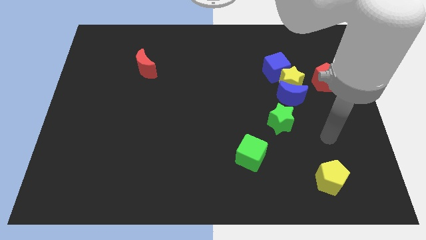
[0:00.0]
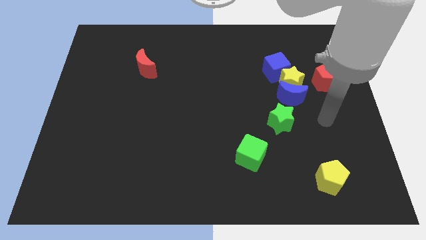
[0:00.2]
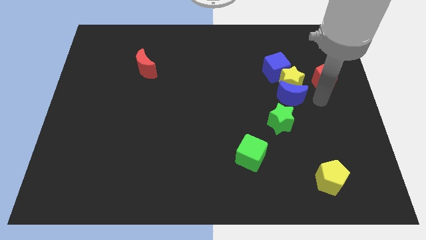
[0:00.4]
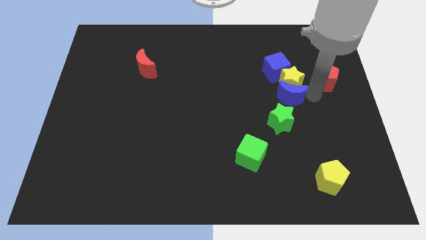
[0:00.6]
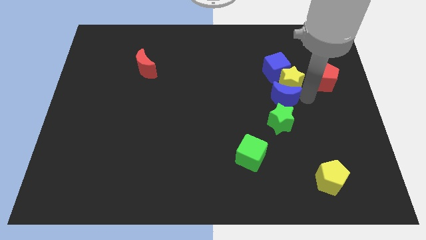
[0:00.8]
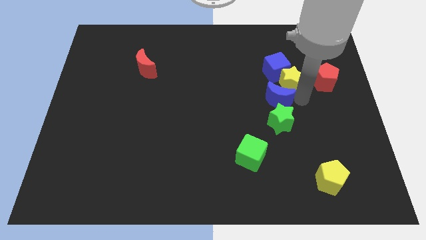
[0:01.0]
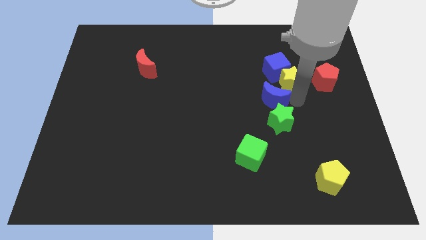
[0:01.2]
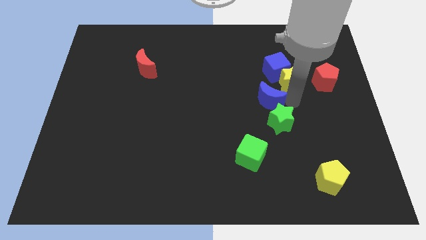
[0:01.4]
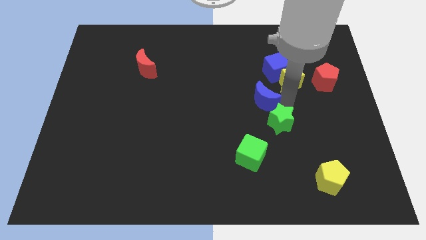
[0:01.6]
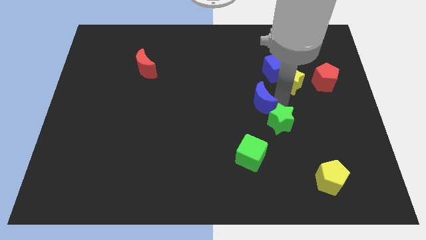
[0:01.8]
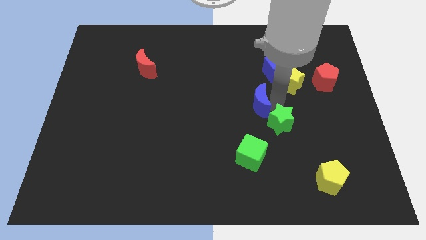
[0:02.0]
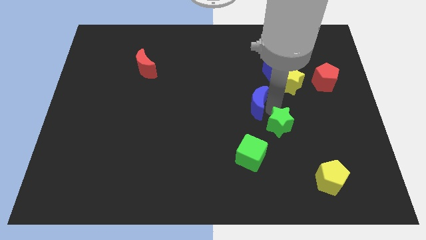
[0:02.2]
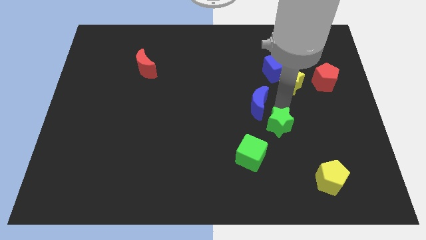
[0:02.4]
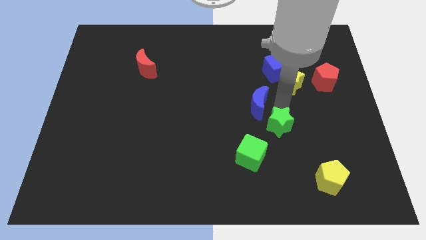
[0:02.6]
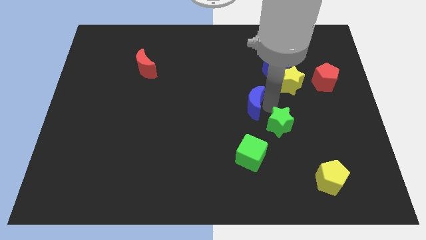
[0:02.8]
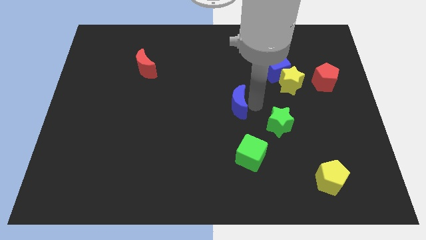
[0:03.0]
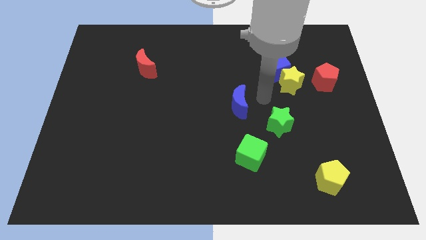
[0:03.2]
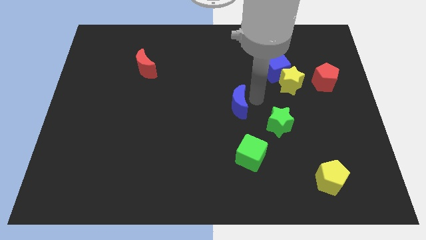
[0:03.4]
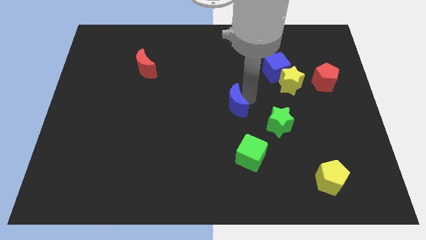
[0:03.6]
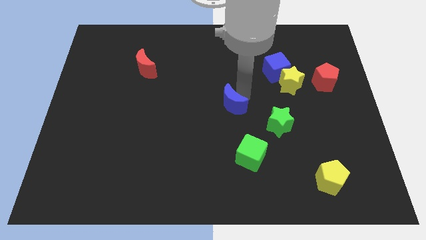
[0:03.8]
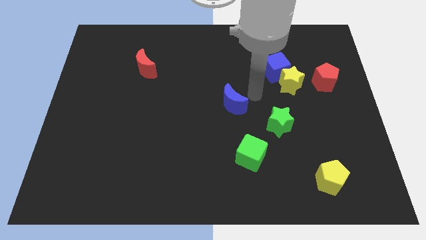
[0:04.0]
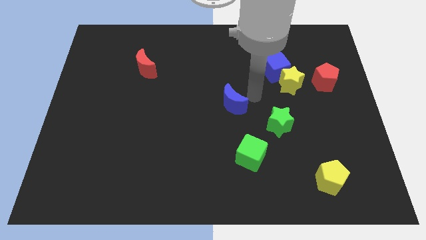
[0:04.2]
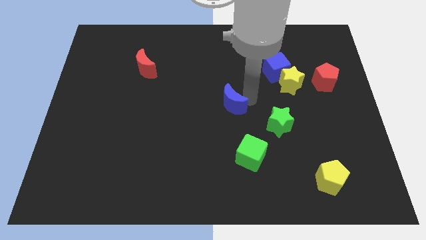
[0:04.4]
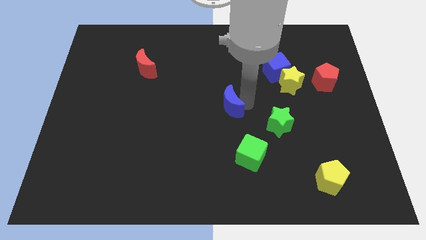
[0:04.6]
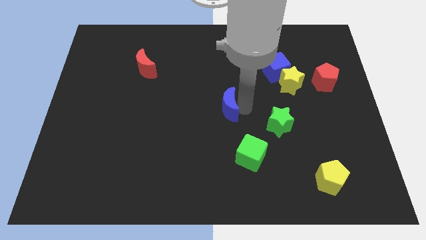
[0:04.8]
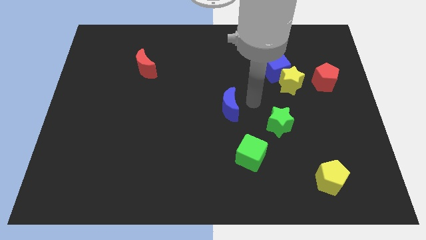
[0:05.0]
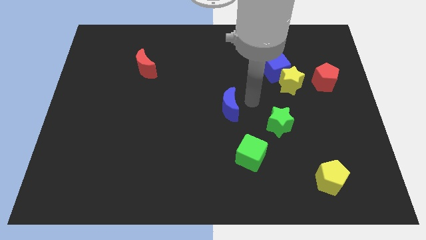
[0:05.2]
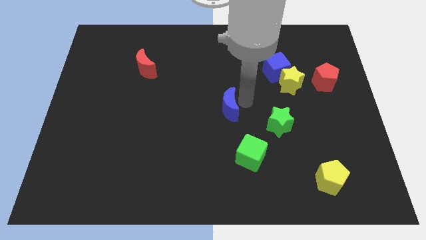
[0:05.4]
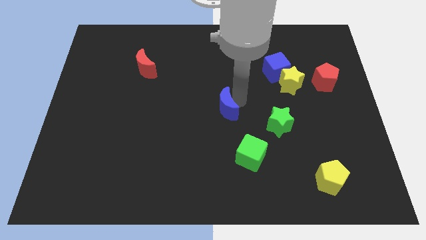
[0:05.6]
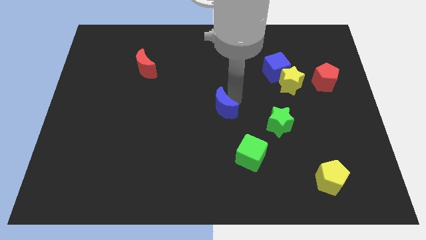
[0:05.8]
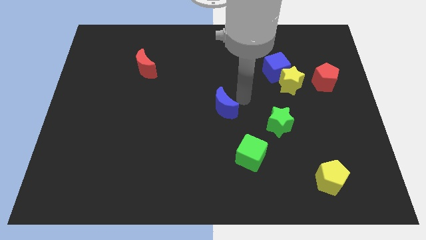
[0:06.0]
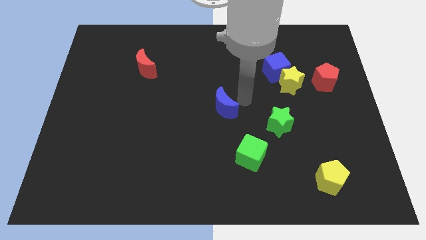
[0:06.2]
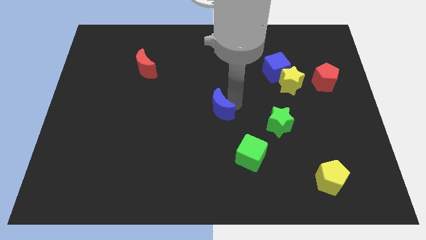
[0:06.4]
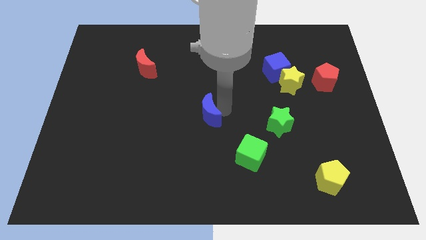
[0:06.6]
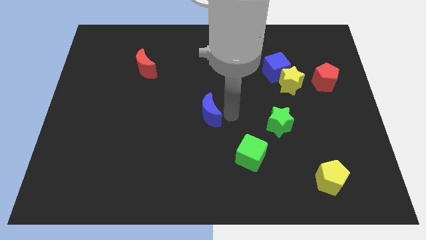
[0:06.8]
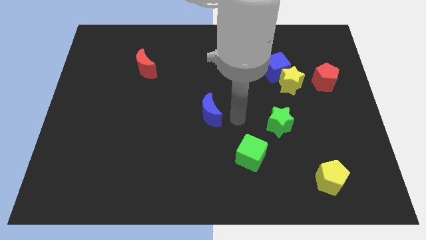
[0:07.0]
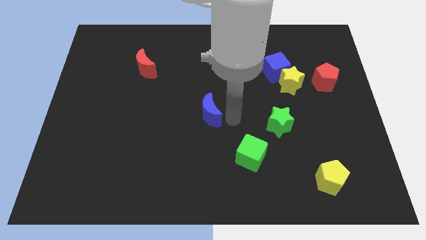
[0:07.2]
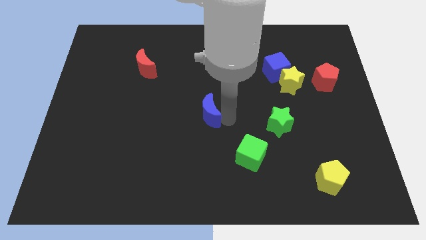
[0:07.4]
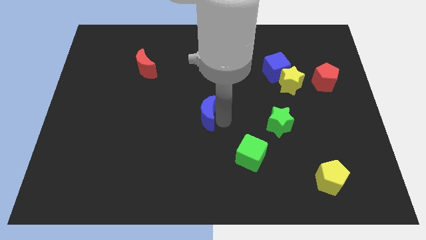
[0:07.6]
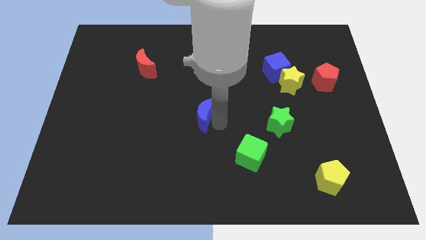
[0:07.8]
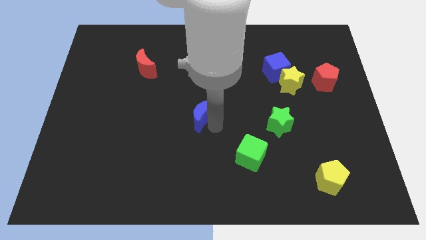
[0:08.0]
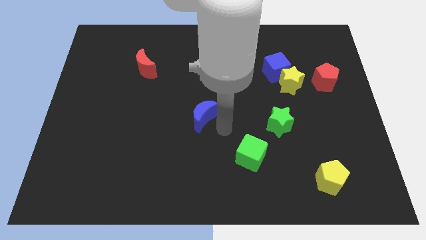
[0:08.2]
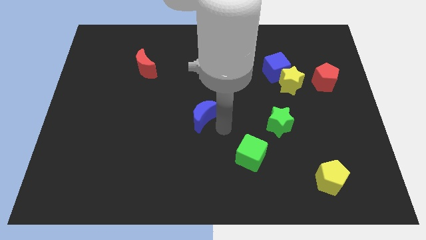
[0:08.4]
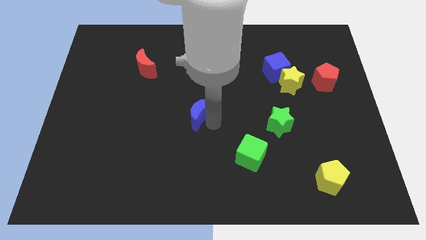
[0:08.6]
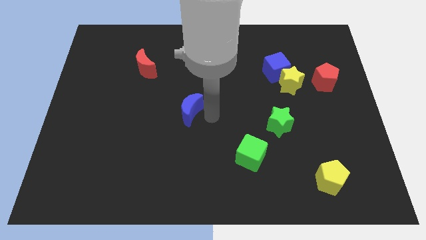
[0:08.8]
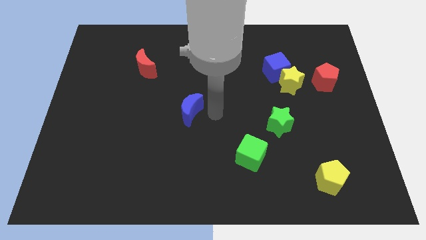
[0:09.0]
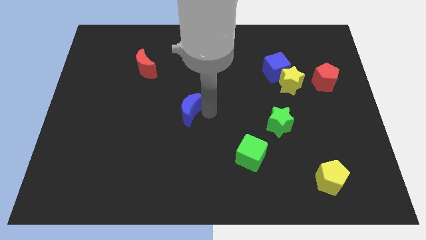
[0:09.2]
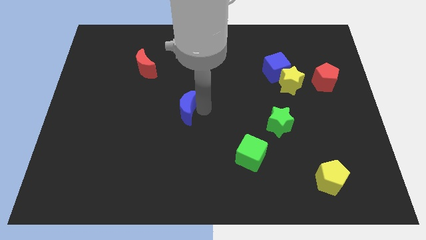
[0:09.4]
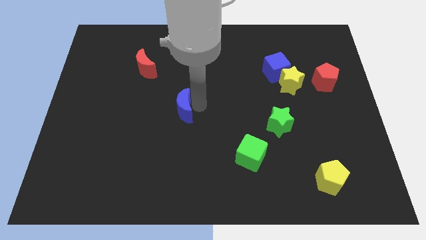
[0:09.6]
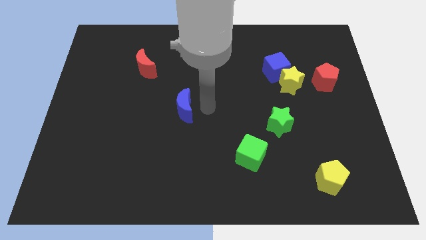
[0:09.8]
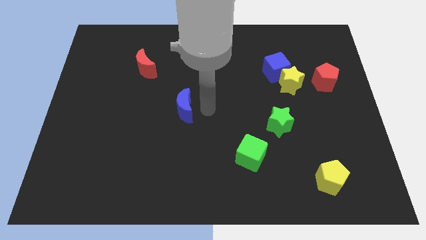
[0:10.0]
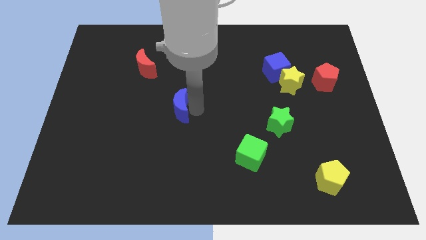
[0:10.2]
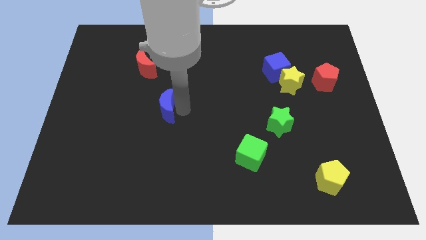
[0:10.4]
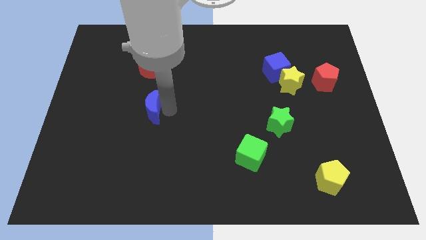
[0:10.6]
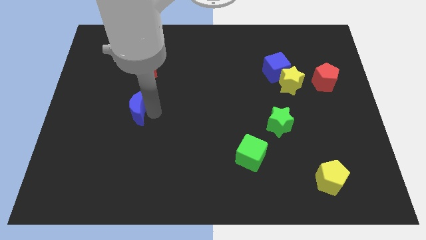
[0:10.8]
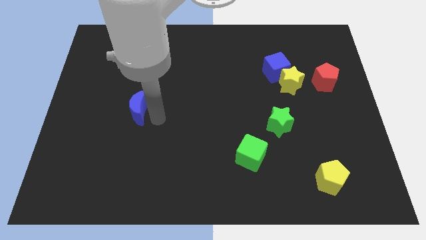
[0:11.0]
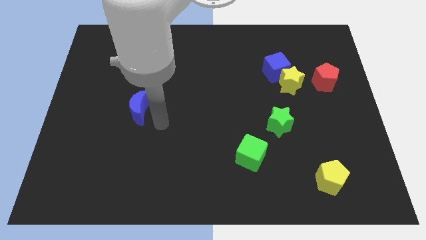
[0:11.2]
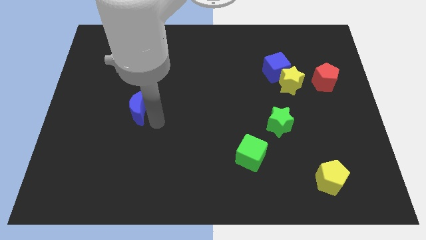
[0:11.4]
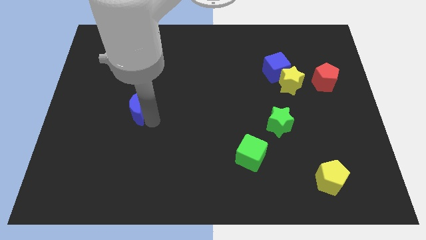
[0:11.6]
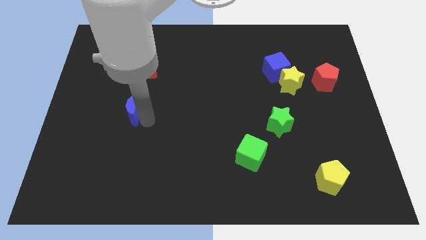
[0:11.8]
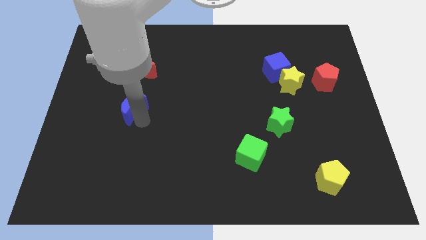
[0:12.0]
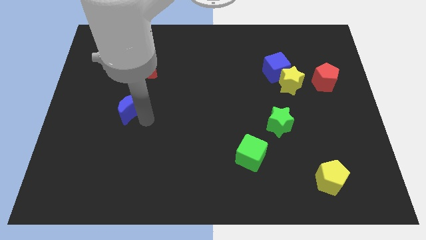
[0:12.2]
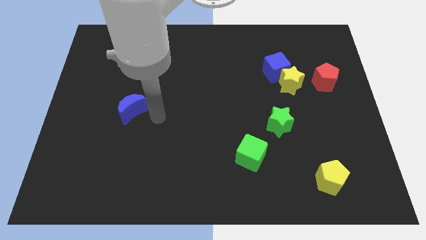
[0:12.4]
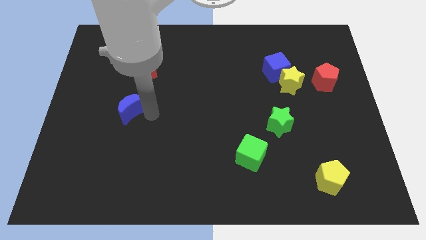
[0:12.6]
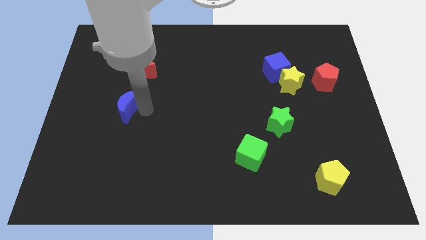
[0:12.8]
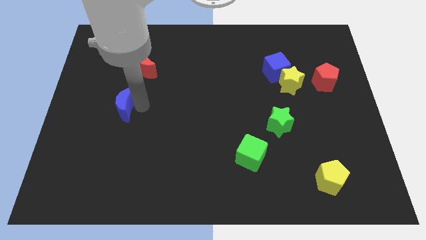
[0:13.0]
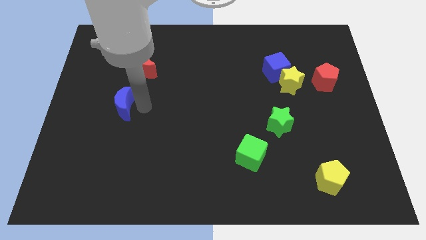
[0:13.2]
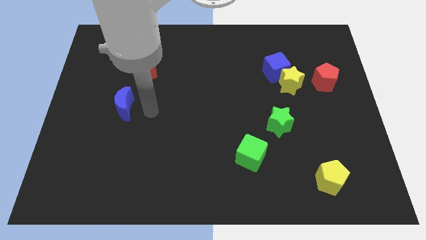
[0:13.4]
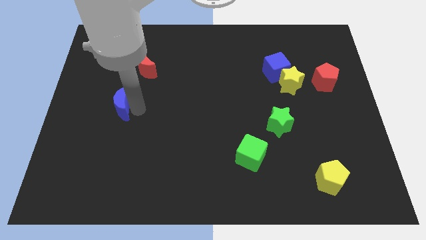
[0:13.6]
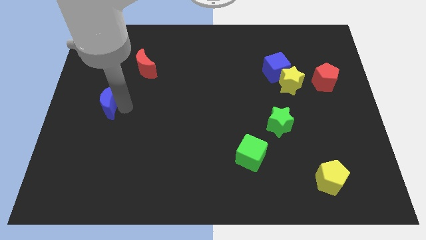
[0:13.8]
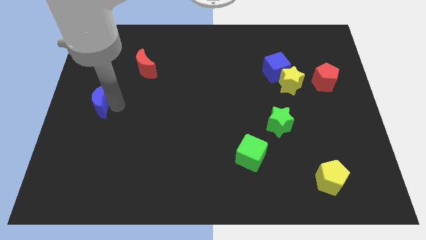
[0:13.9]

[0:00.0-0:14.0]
push the blue moon to the left side

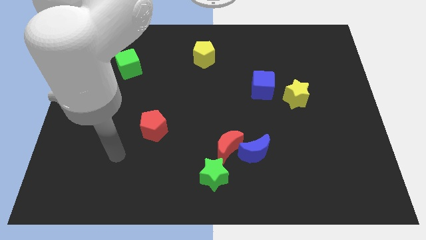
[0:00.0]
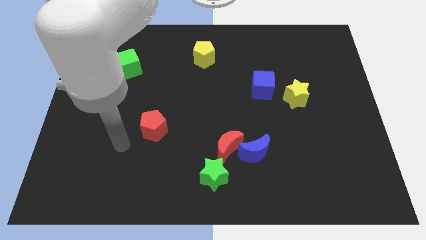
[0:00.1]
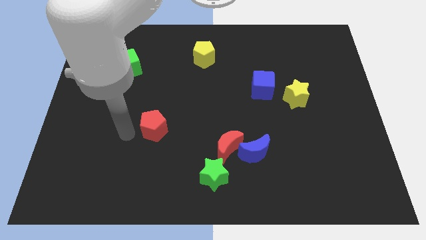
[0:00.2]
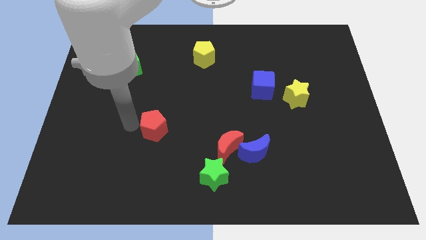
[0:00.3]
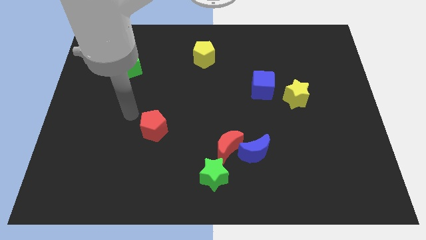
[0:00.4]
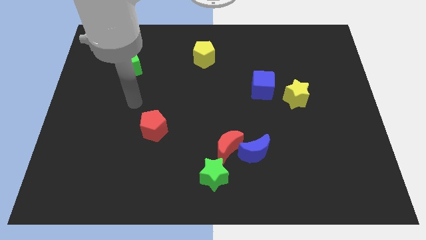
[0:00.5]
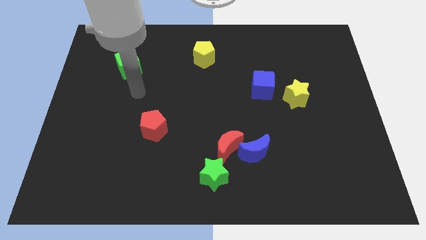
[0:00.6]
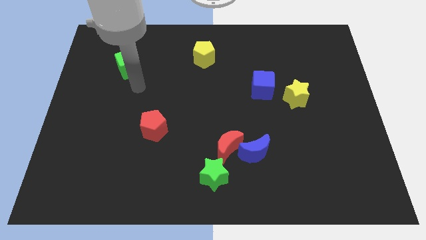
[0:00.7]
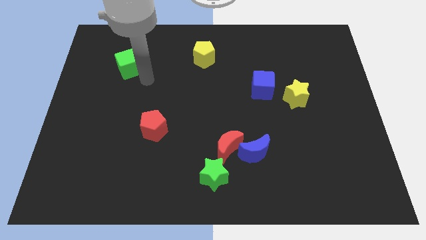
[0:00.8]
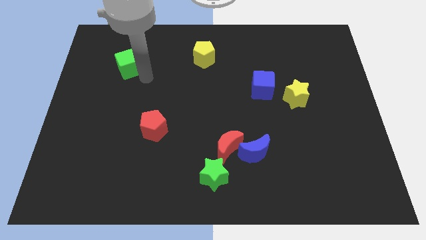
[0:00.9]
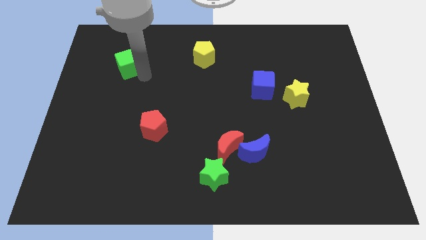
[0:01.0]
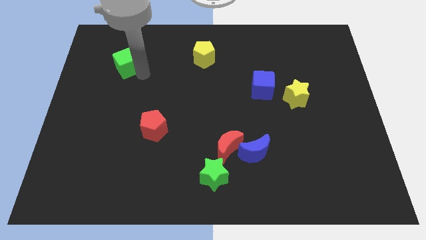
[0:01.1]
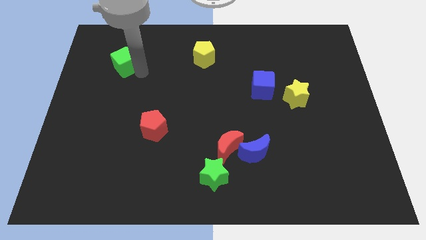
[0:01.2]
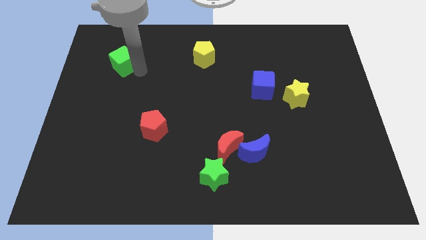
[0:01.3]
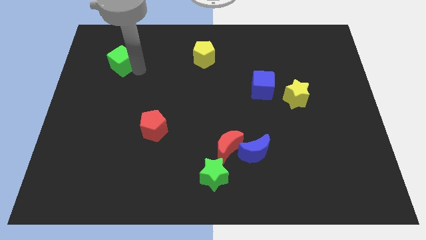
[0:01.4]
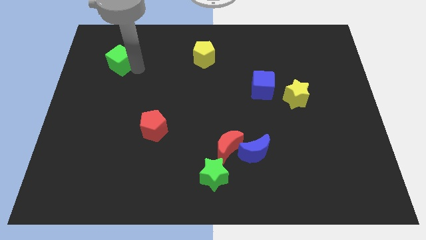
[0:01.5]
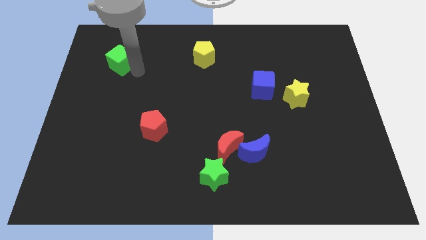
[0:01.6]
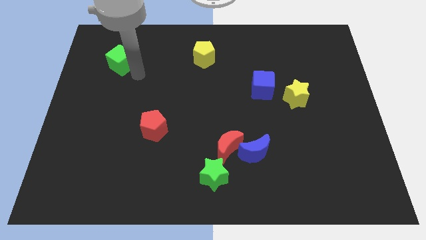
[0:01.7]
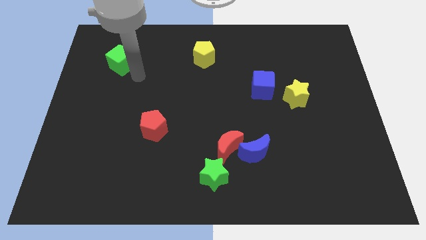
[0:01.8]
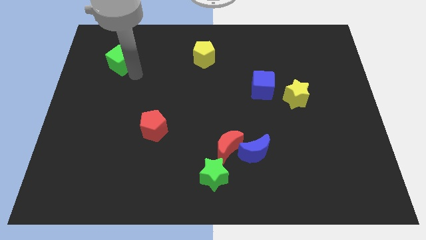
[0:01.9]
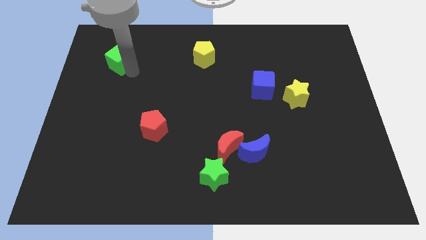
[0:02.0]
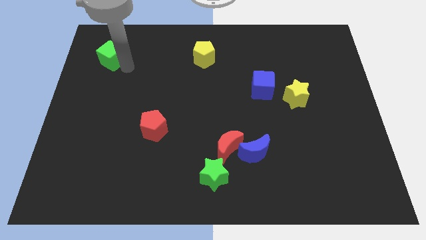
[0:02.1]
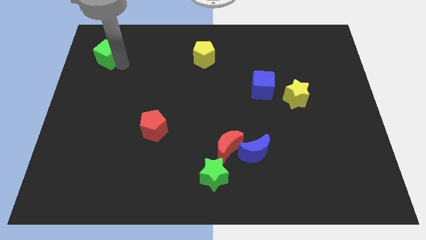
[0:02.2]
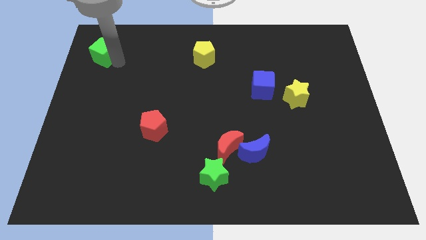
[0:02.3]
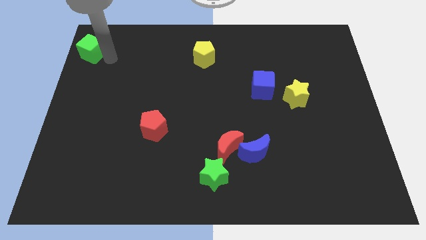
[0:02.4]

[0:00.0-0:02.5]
slide the green cube to the top left
